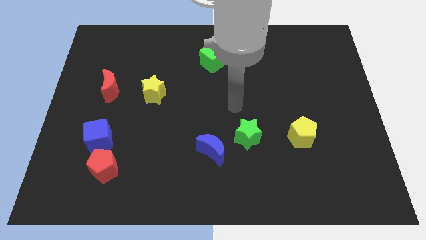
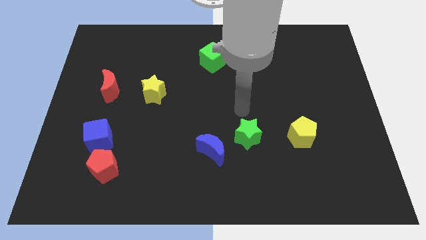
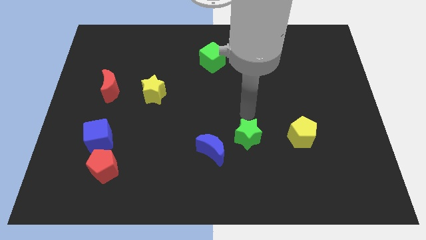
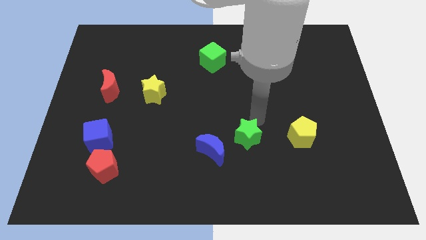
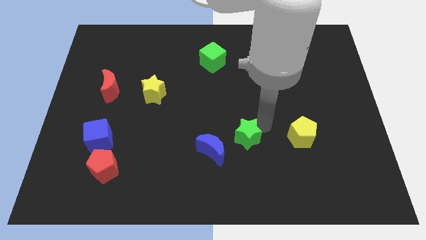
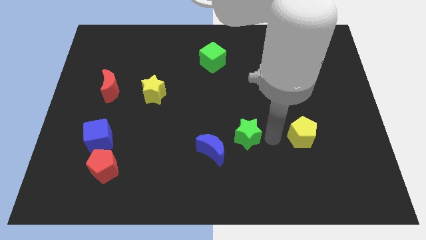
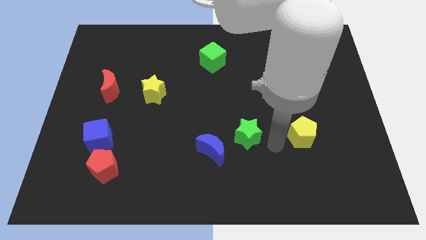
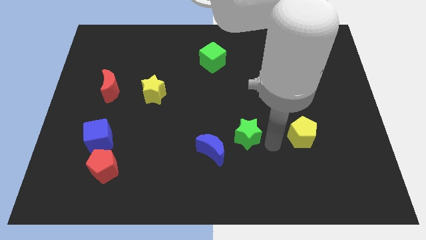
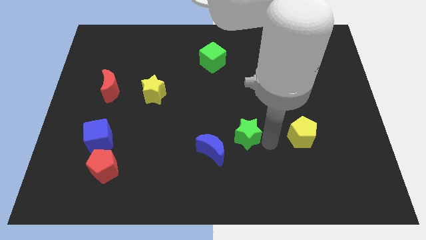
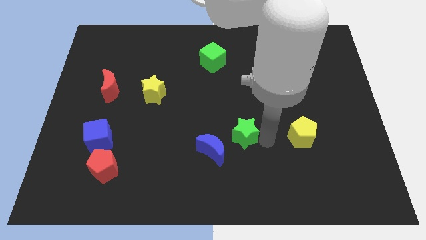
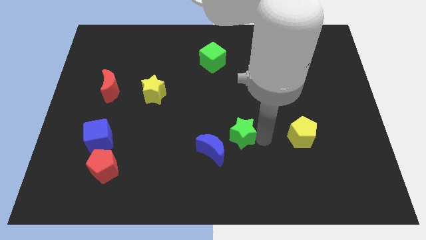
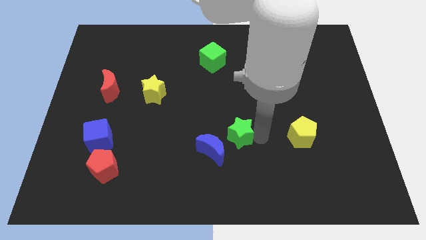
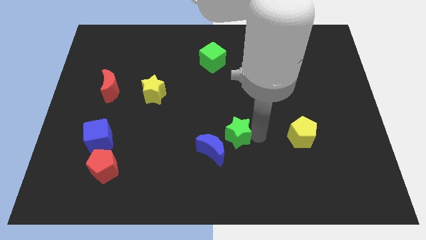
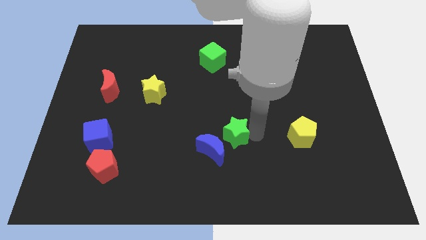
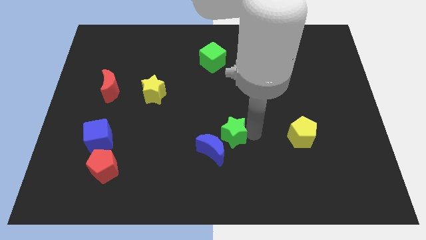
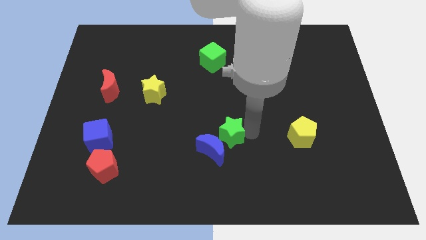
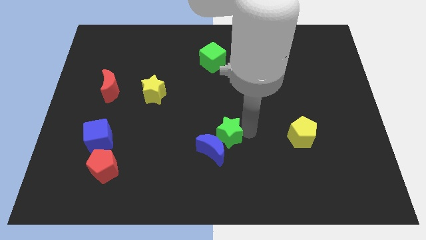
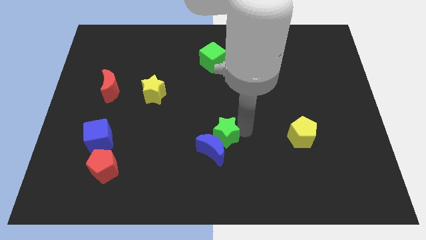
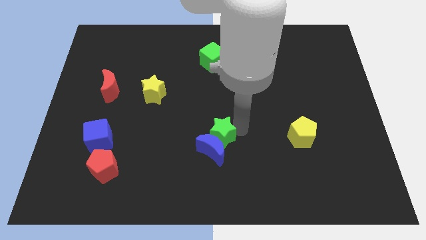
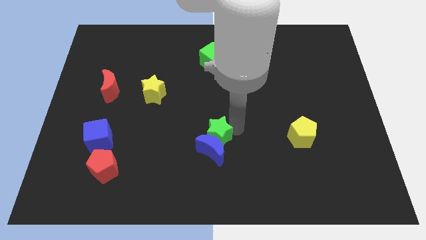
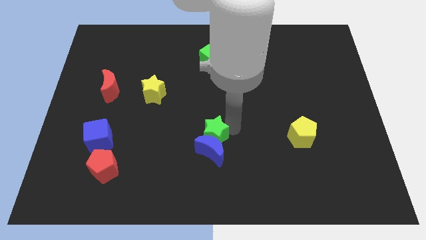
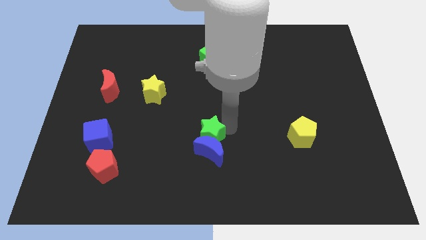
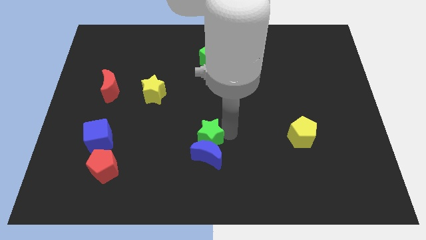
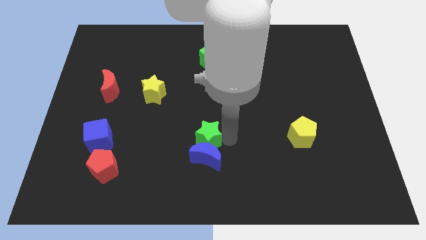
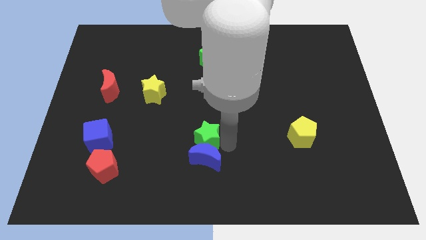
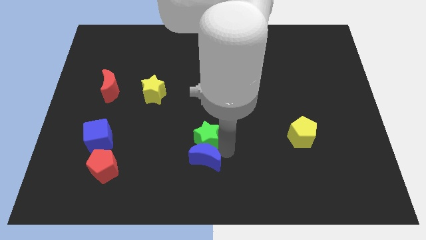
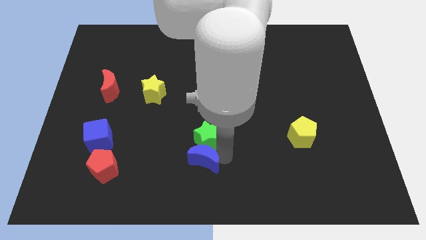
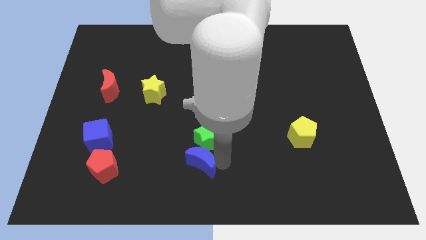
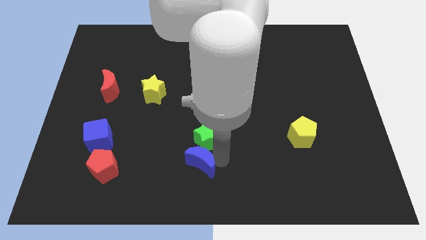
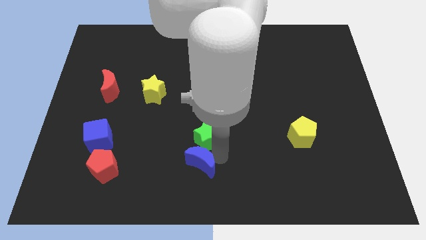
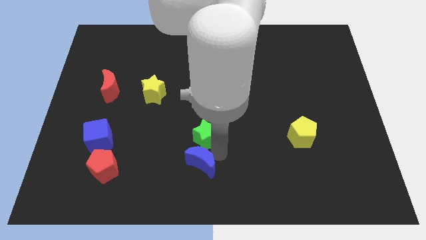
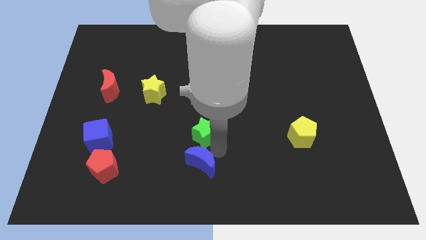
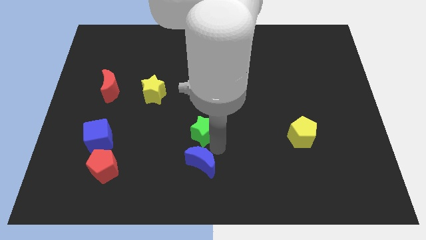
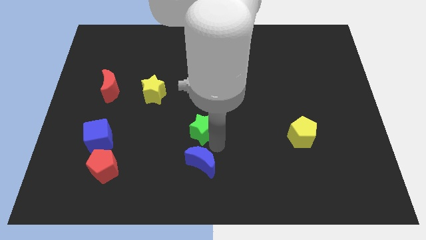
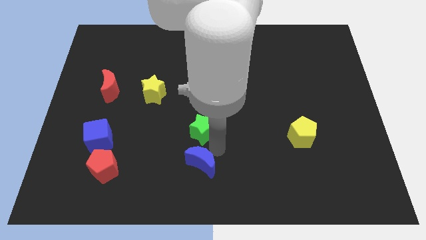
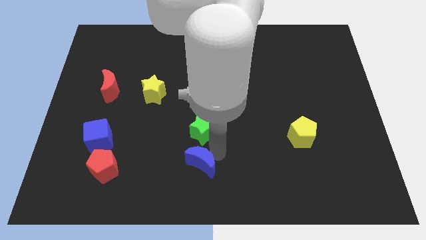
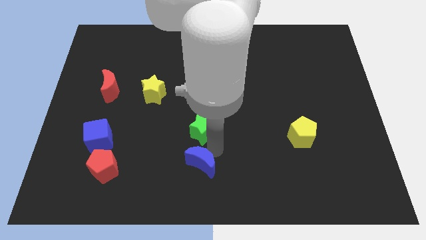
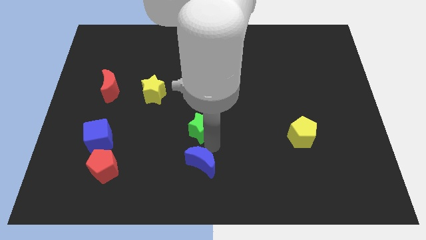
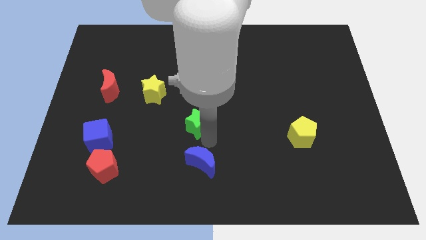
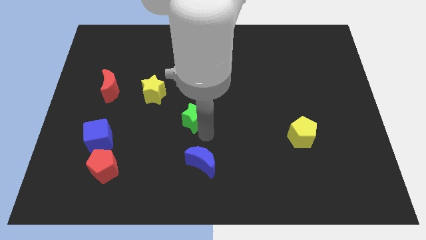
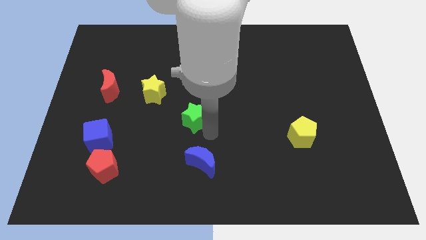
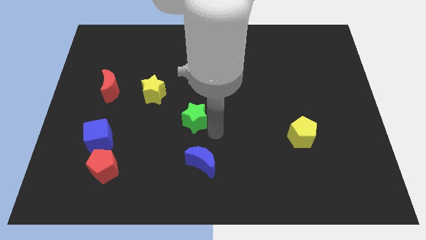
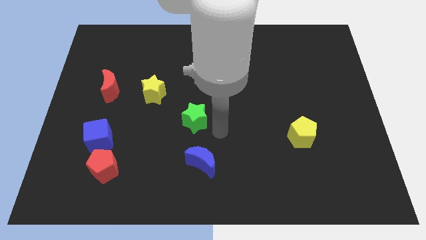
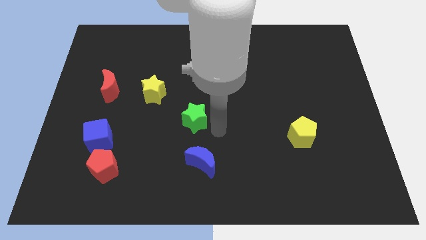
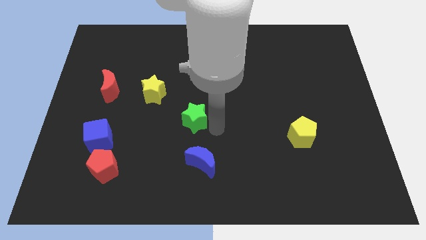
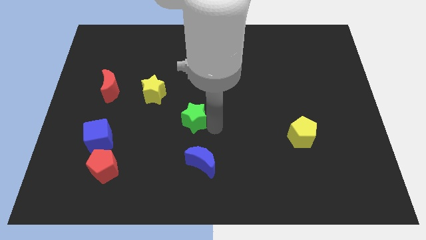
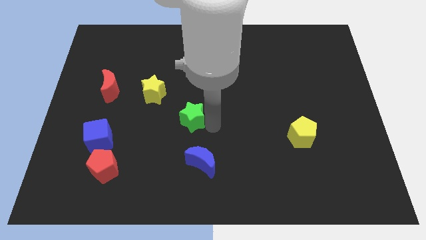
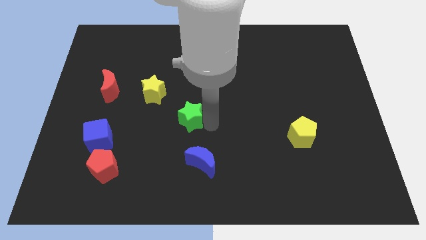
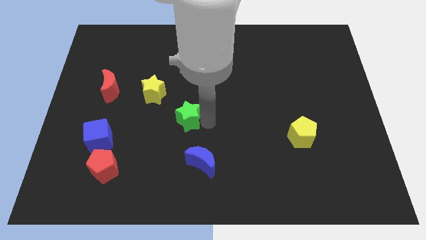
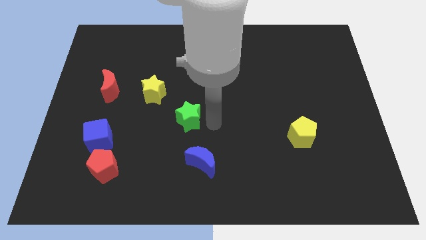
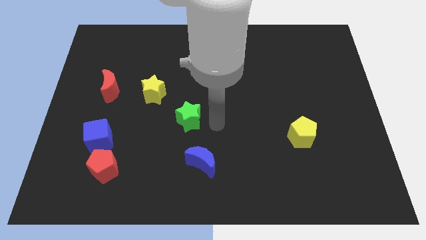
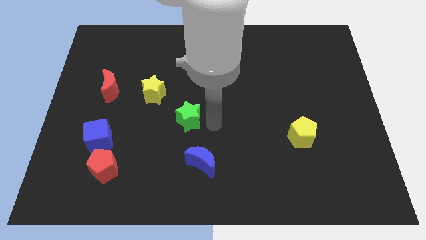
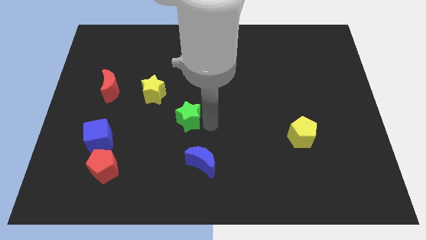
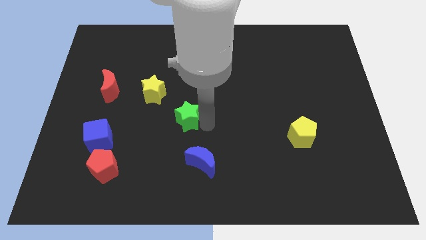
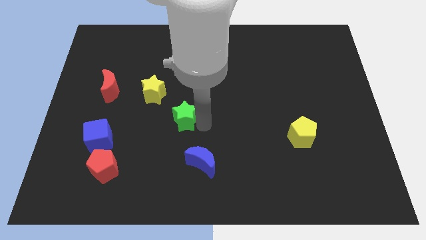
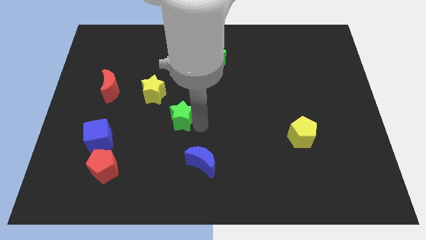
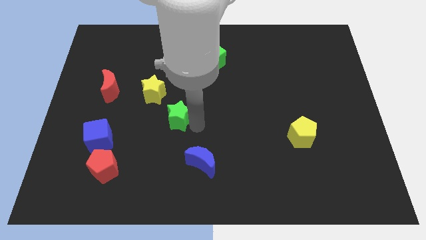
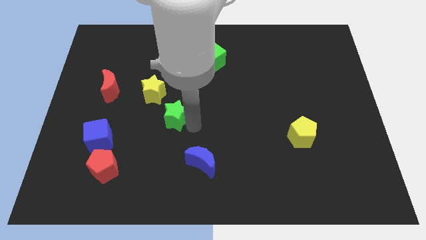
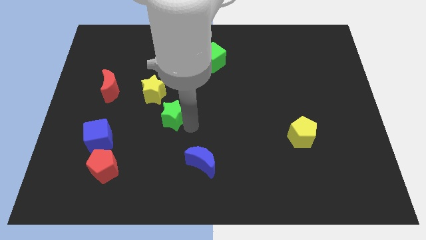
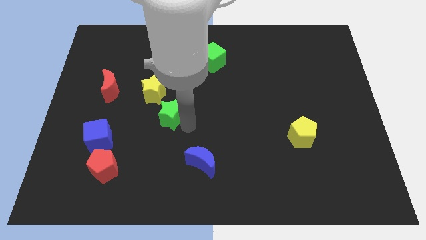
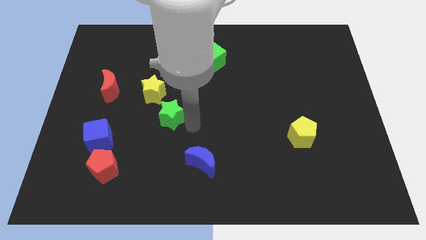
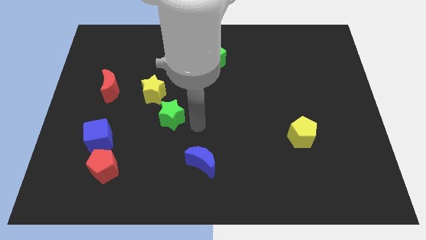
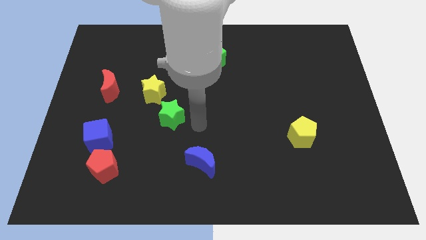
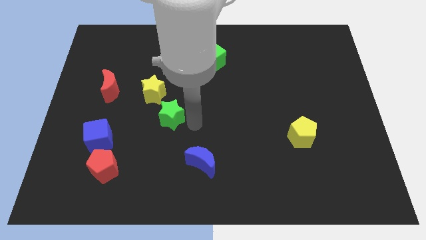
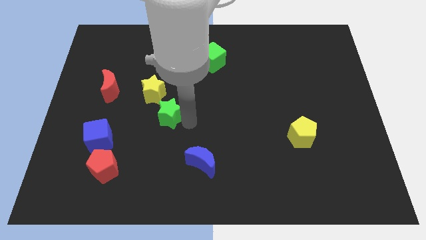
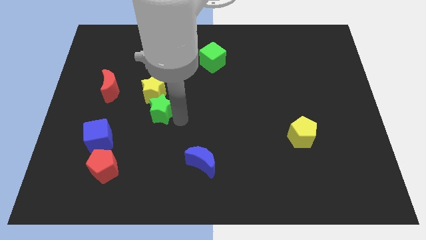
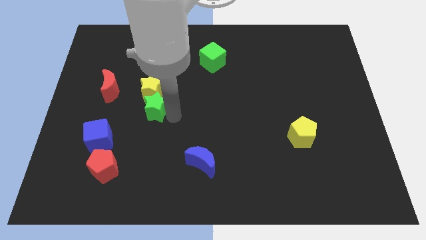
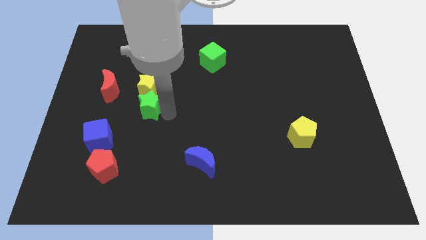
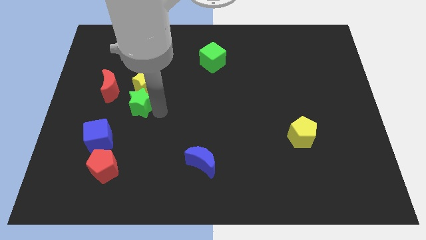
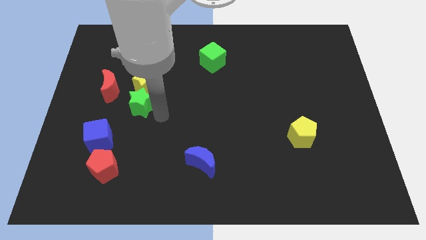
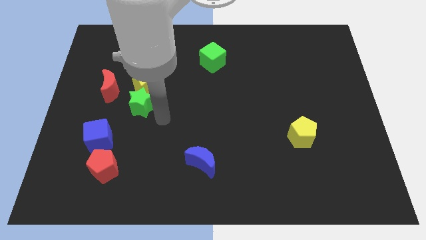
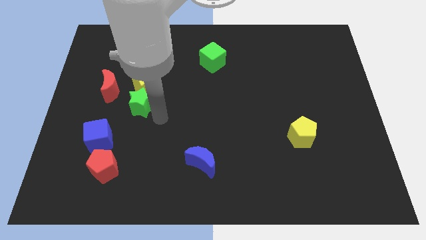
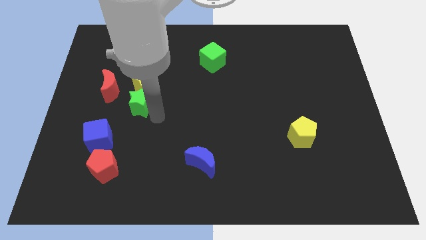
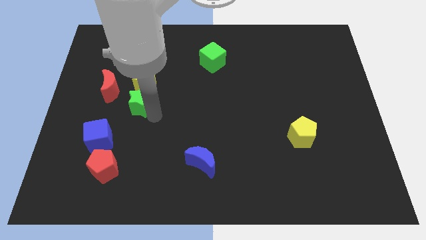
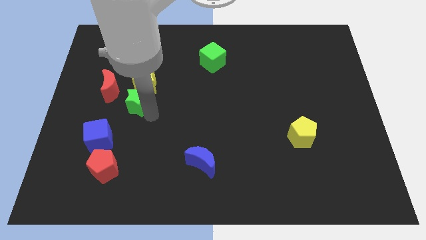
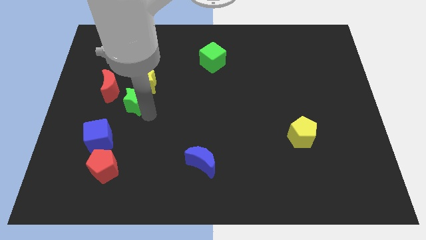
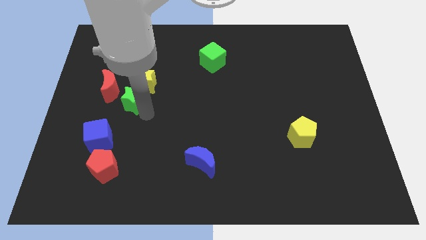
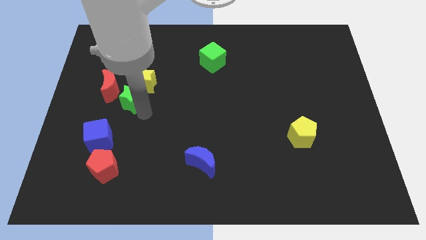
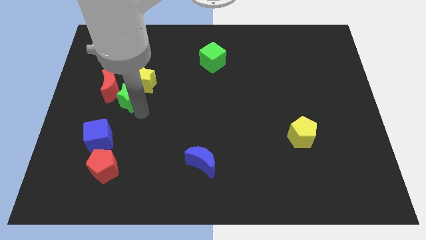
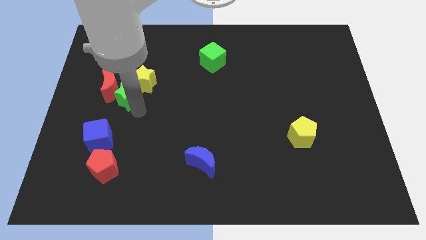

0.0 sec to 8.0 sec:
push the green star to the red moon

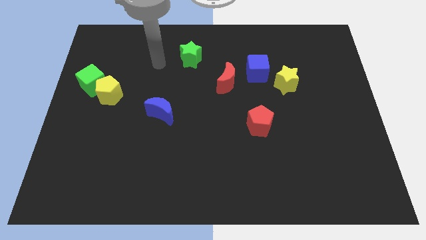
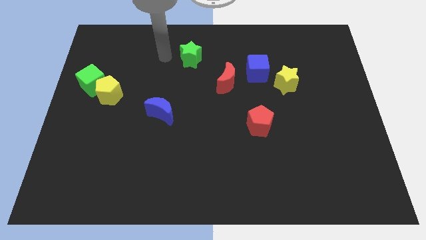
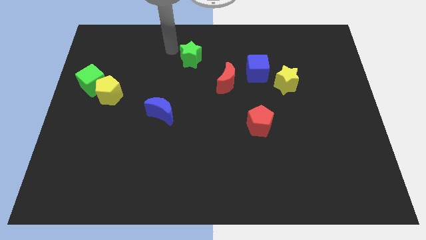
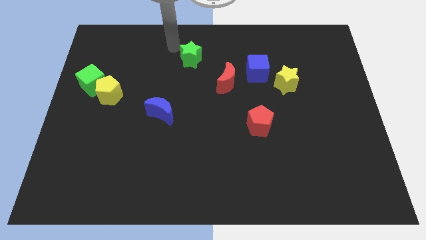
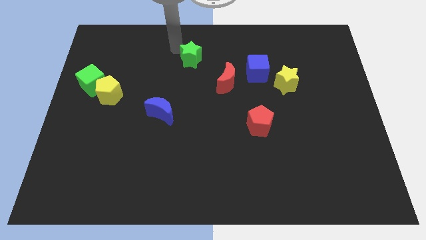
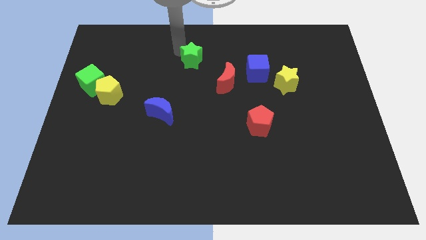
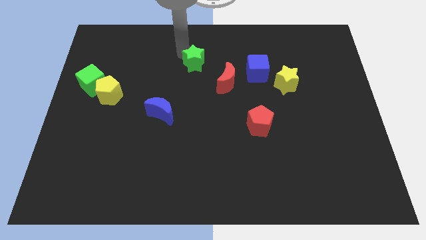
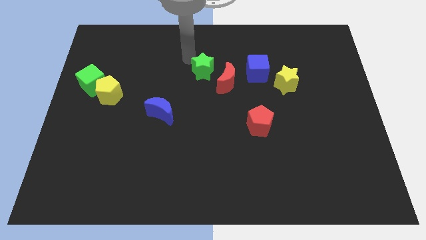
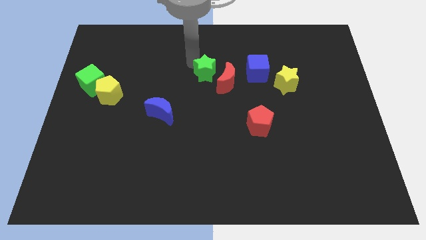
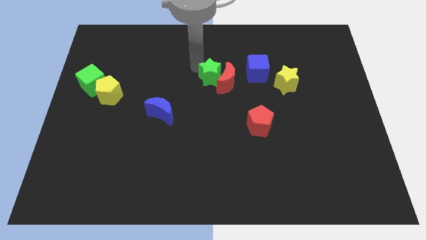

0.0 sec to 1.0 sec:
push the green star towards the red moon
